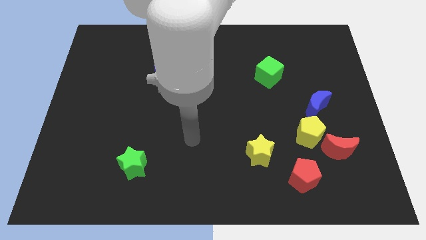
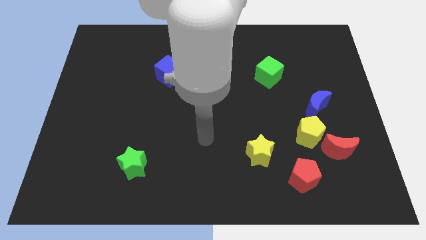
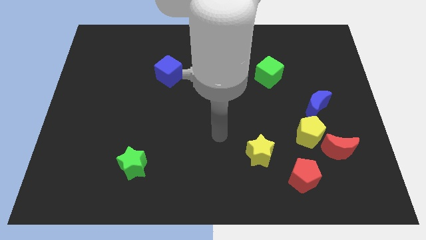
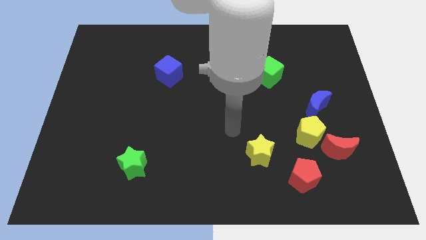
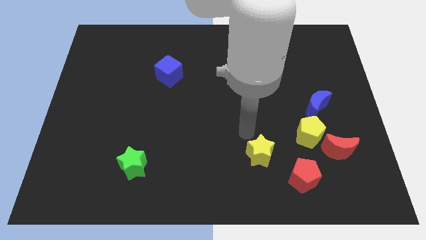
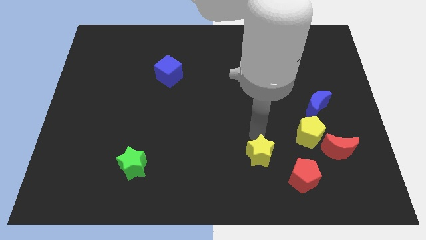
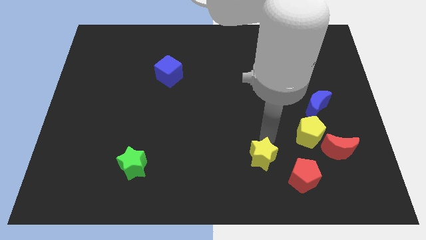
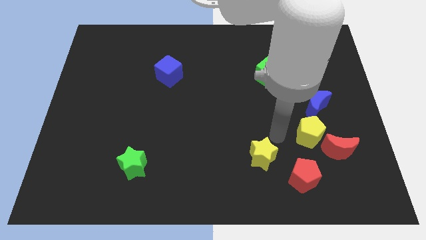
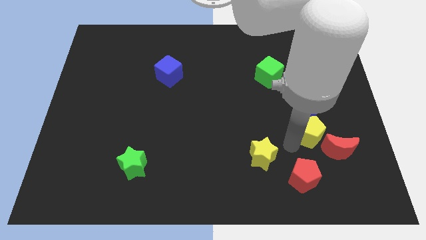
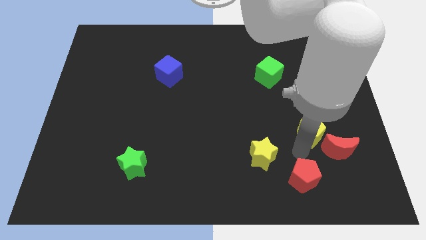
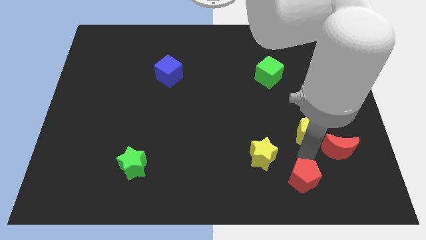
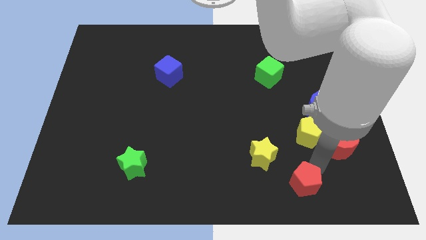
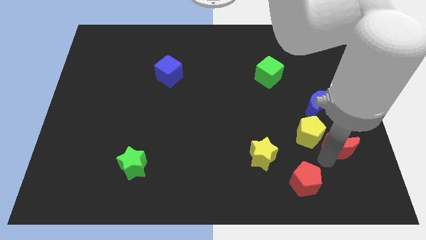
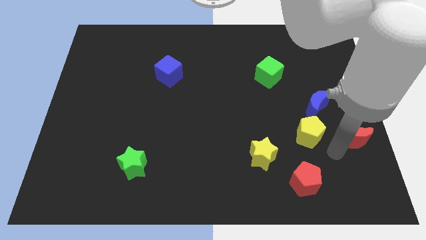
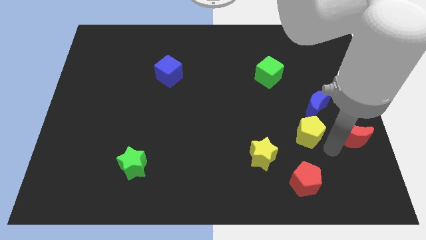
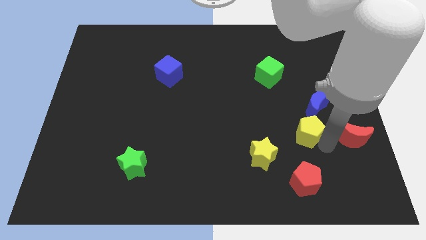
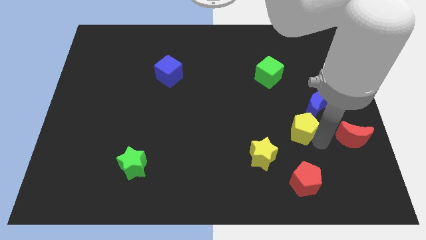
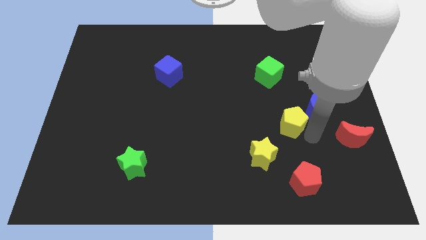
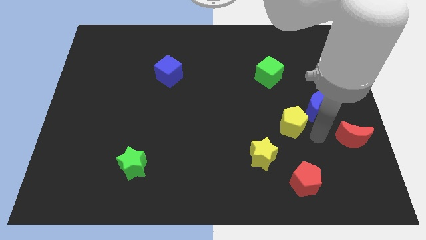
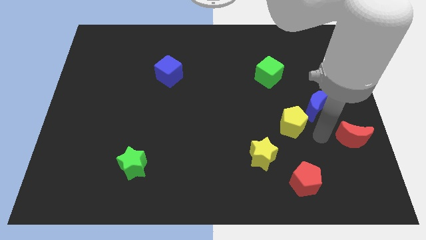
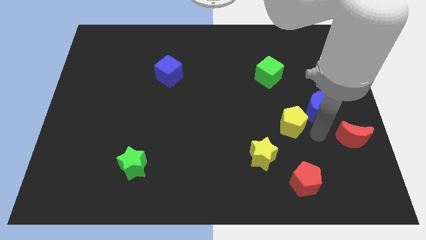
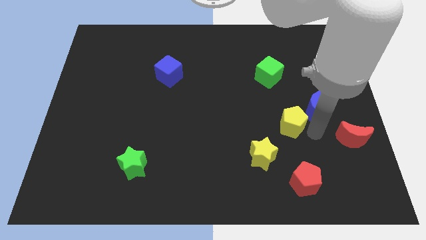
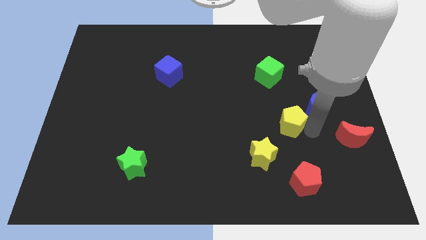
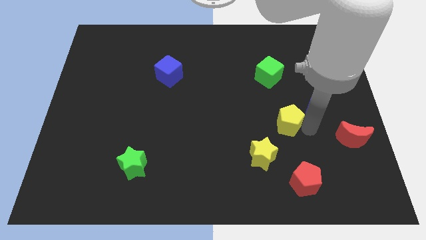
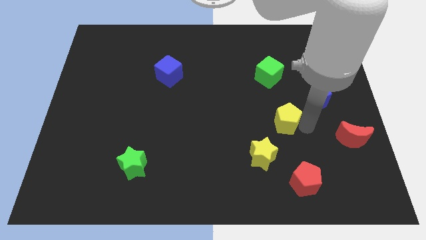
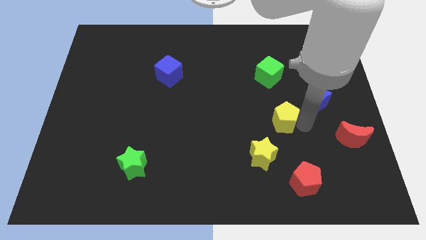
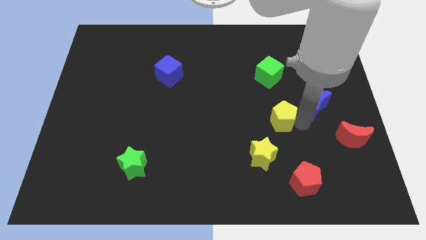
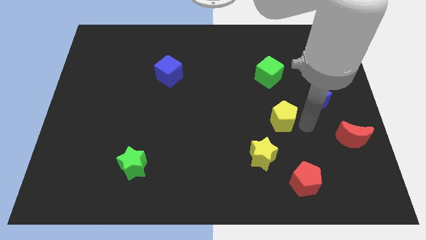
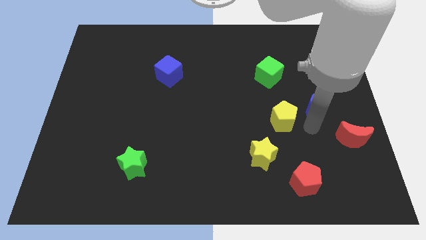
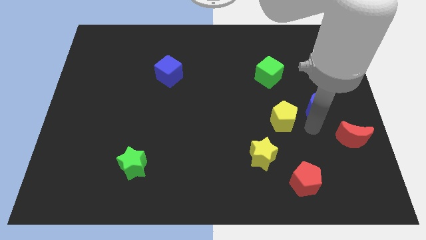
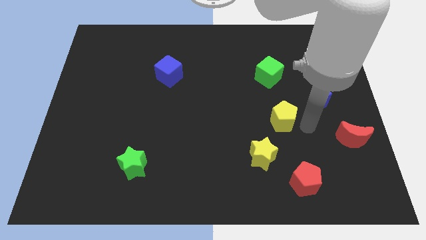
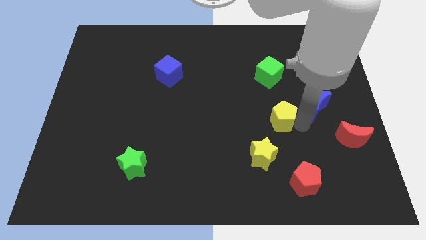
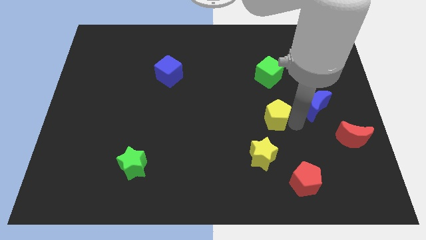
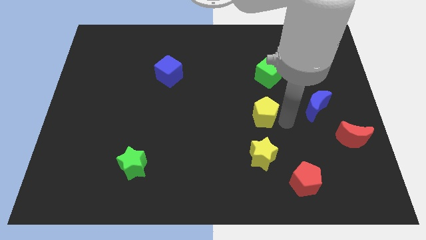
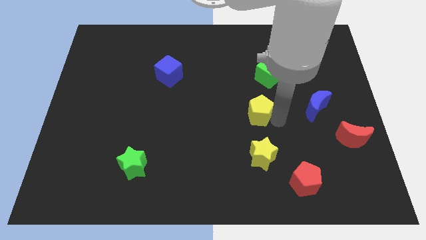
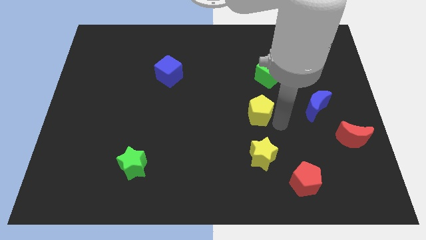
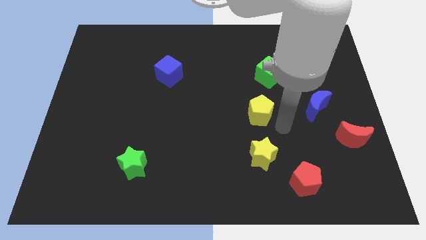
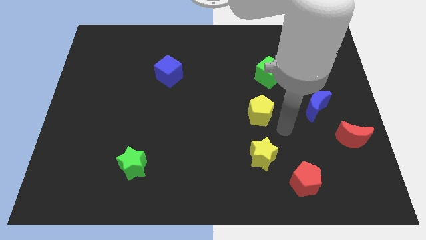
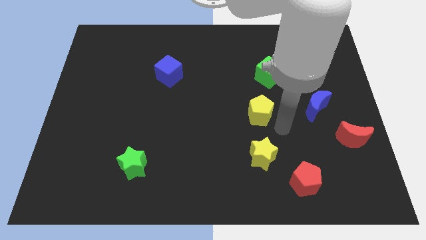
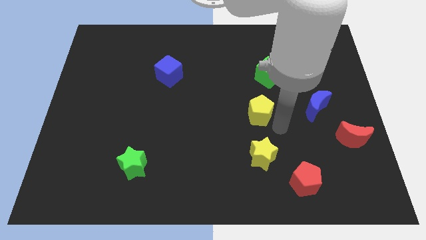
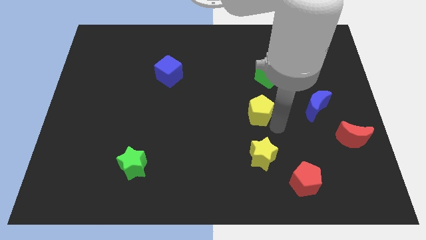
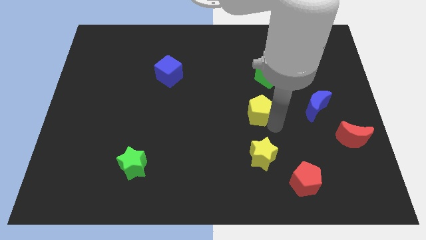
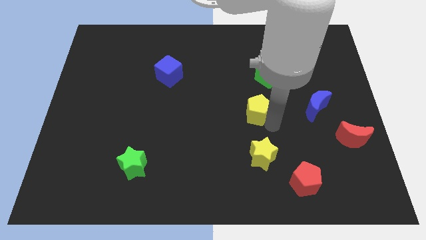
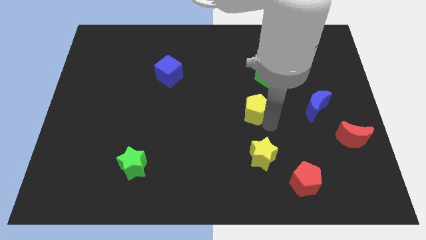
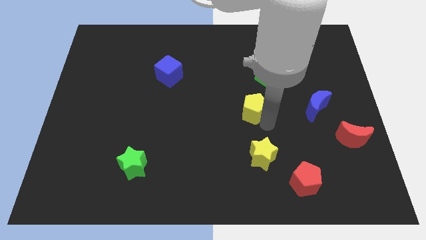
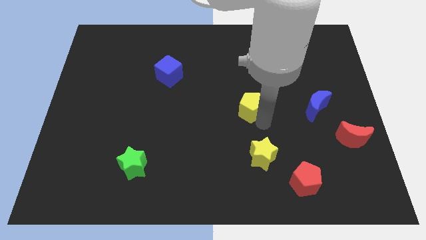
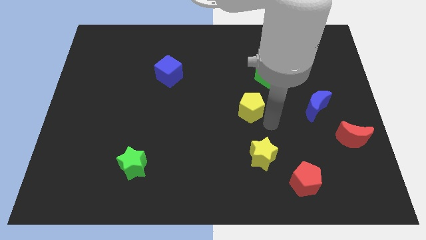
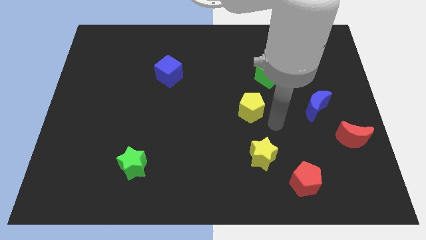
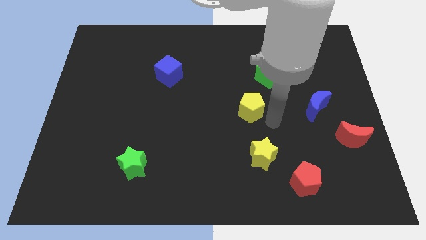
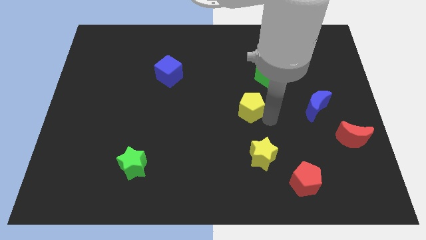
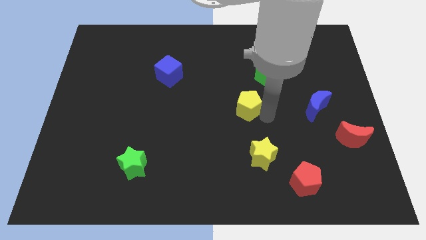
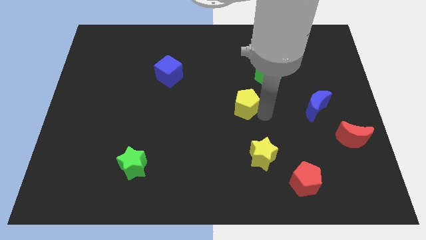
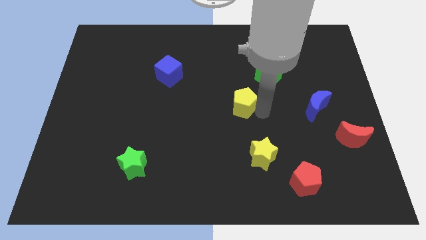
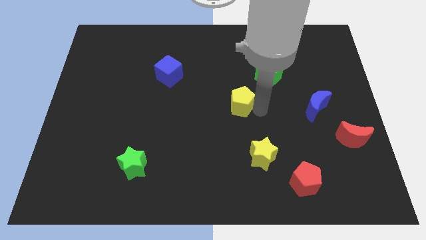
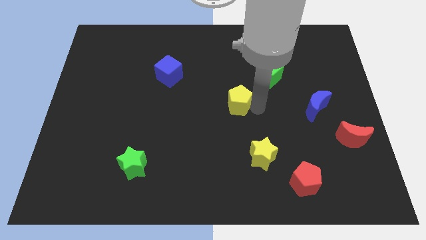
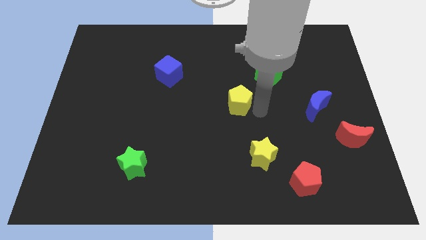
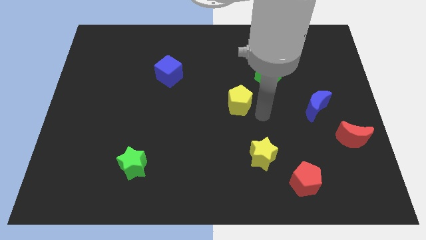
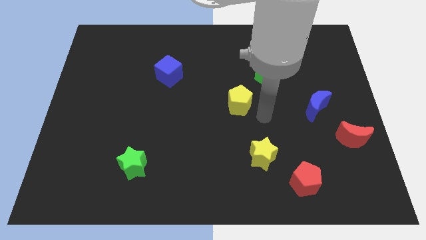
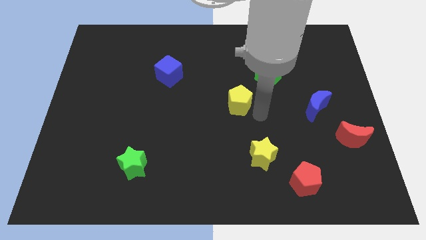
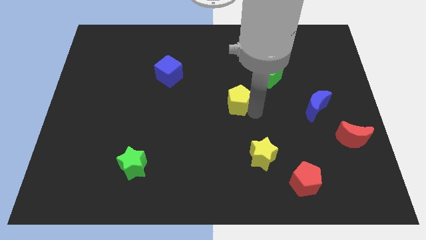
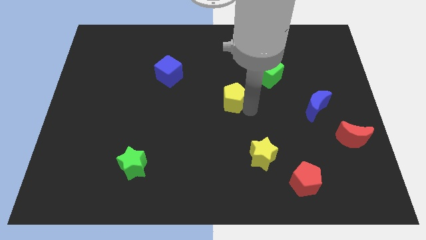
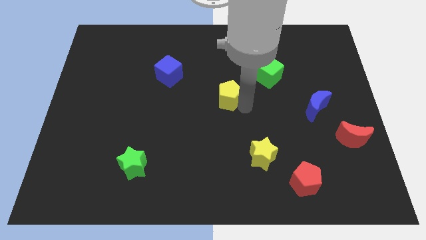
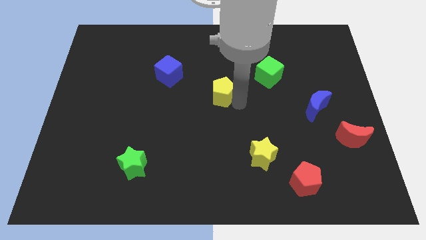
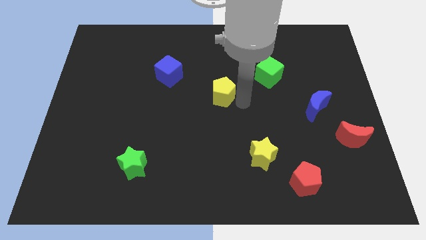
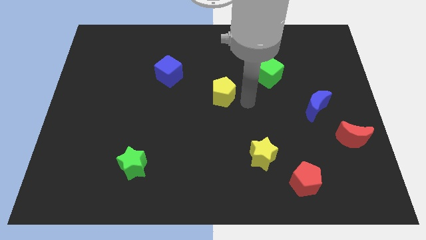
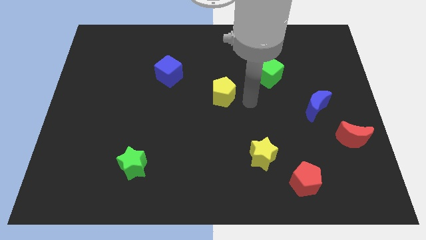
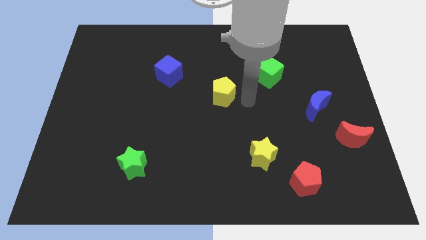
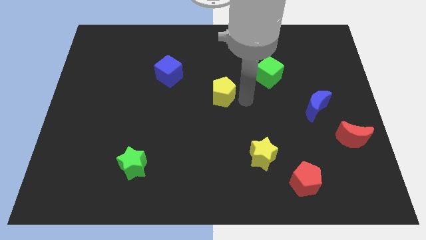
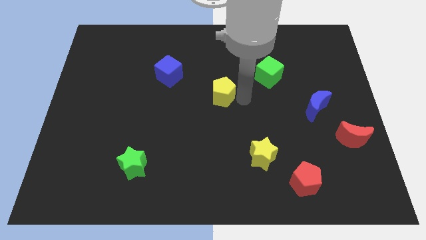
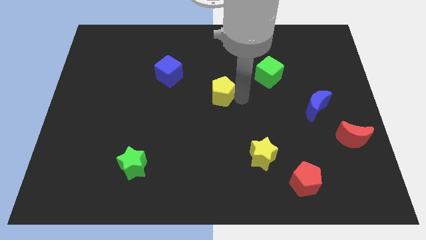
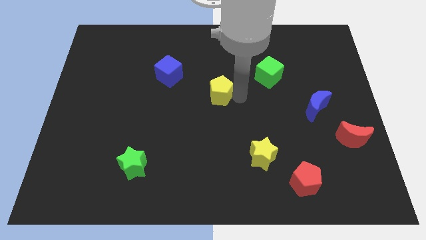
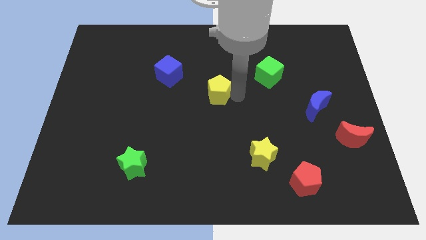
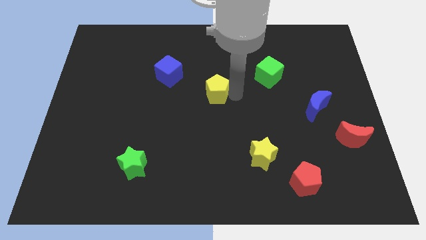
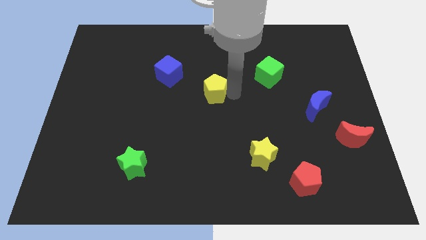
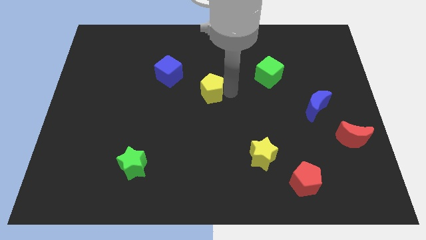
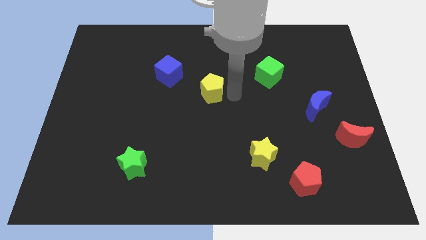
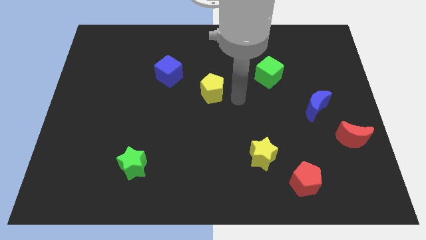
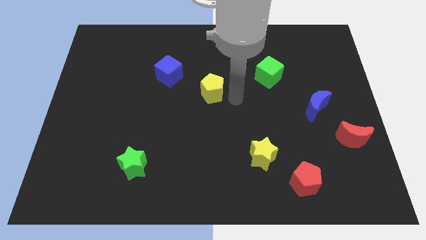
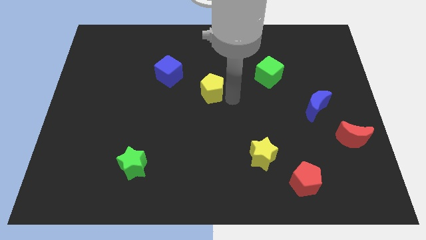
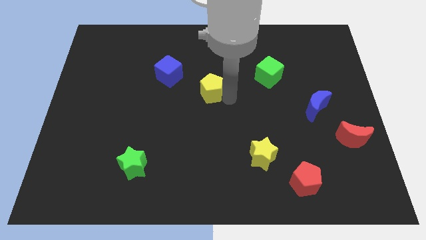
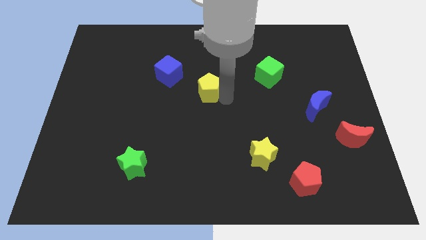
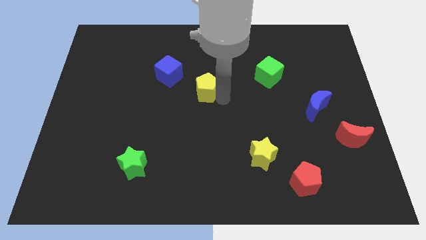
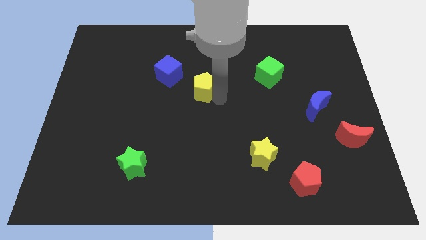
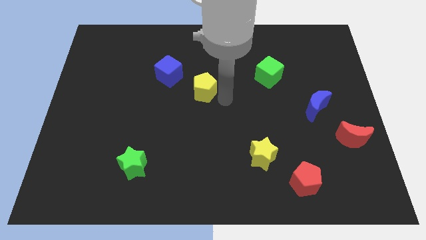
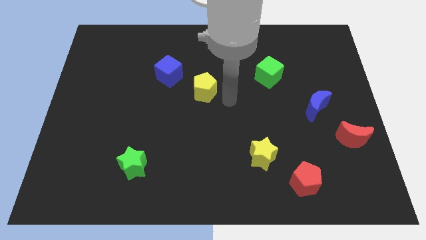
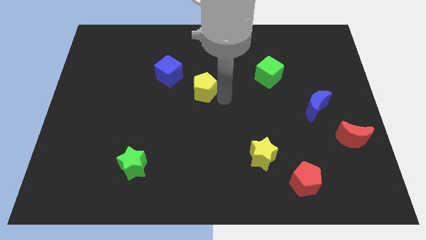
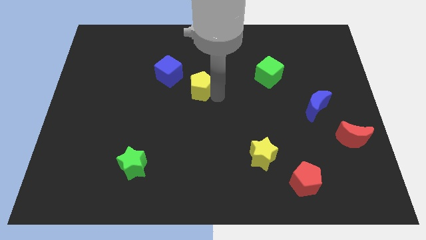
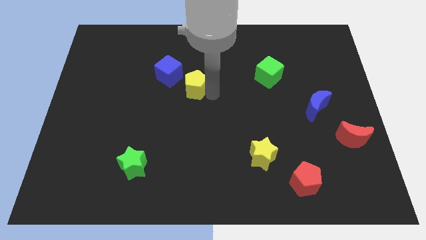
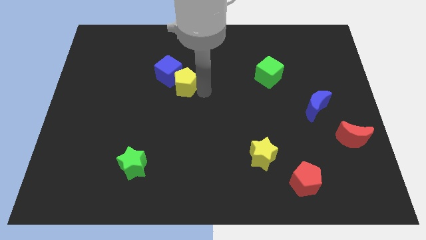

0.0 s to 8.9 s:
push the yellow pentagon towards the blue cube
